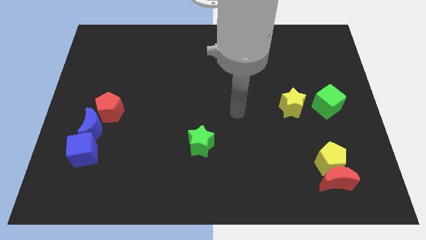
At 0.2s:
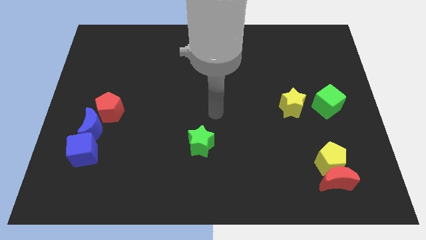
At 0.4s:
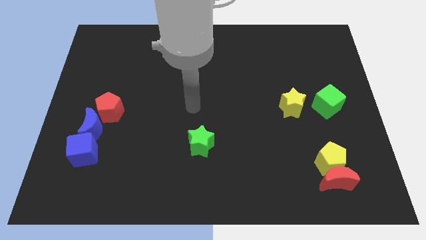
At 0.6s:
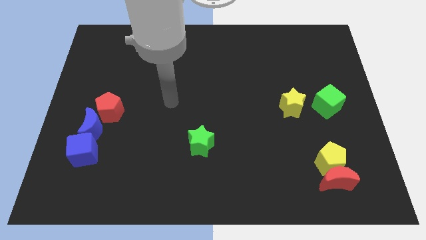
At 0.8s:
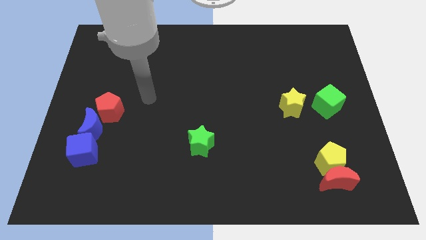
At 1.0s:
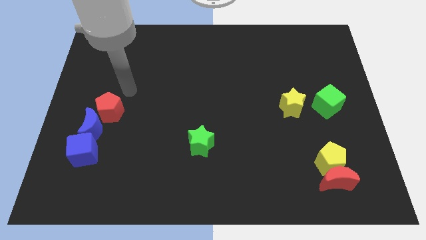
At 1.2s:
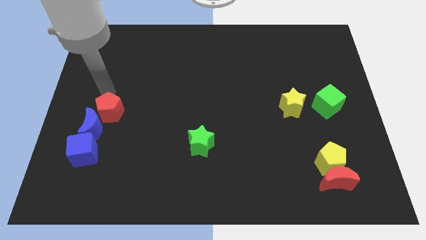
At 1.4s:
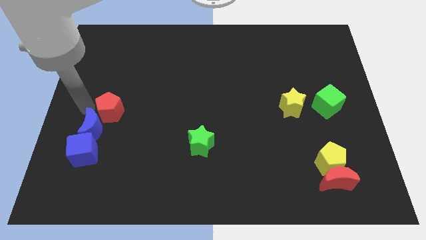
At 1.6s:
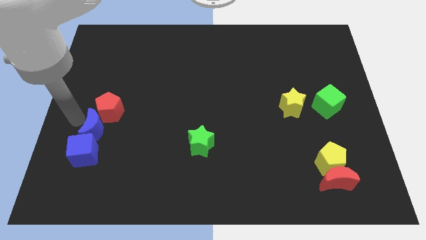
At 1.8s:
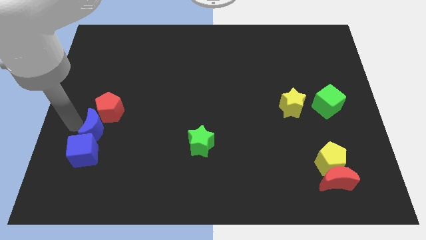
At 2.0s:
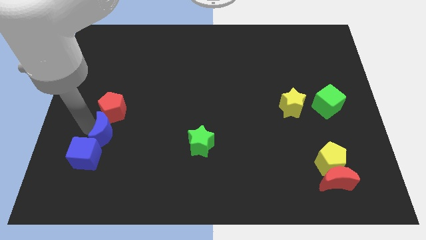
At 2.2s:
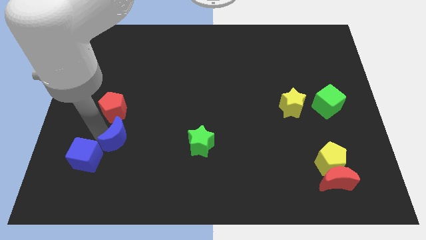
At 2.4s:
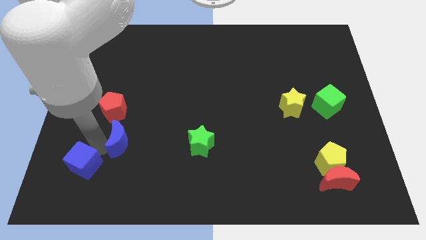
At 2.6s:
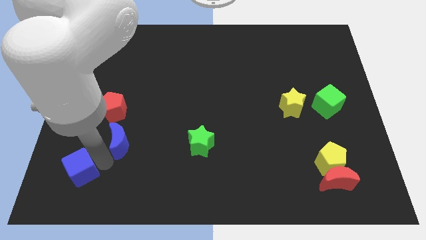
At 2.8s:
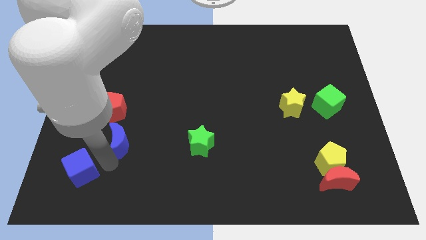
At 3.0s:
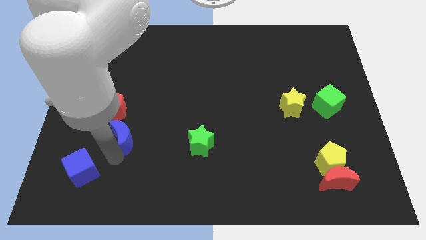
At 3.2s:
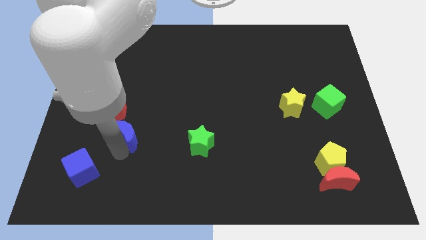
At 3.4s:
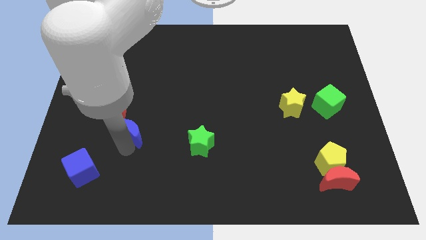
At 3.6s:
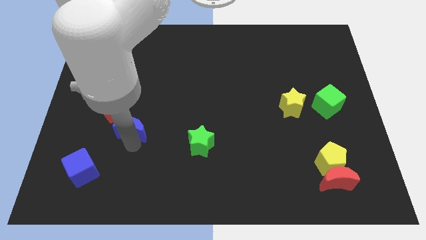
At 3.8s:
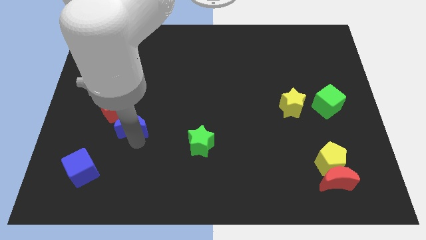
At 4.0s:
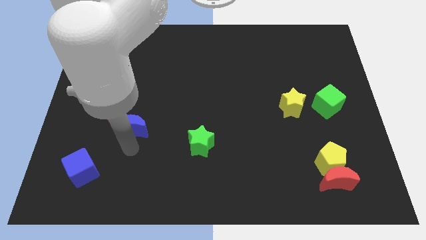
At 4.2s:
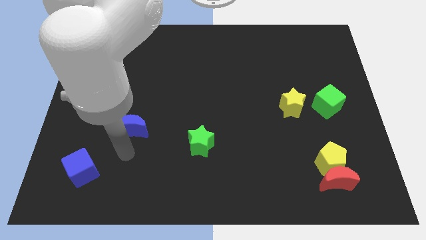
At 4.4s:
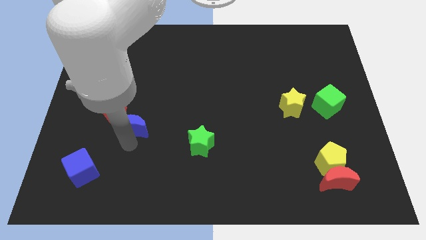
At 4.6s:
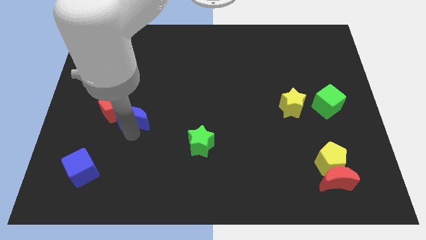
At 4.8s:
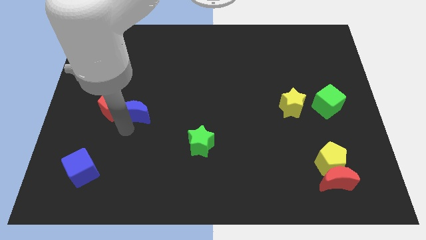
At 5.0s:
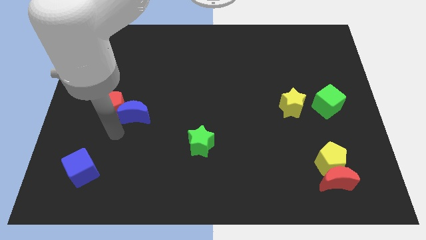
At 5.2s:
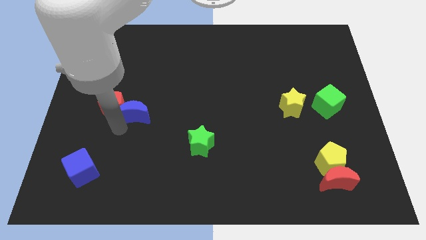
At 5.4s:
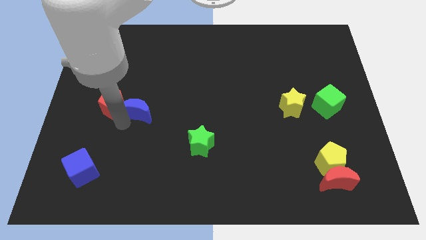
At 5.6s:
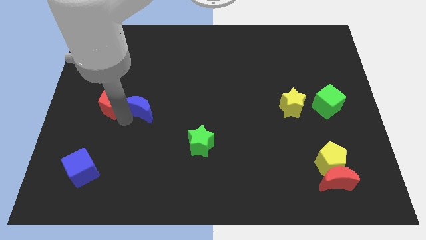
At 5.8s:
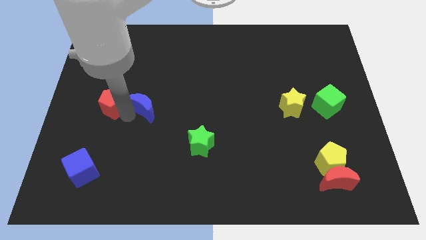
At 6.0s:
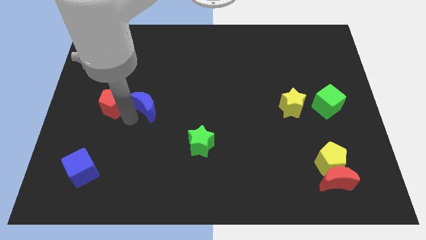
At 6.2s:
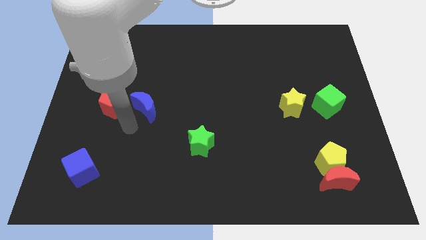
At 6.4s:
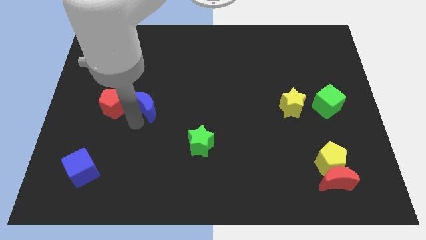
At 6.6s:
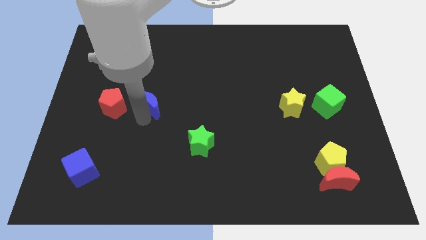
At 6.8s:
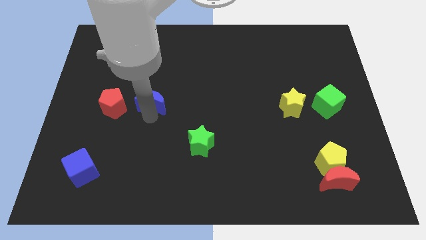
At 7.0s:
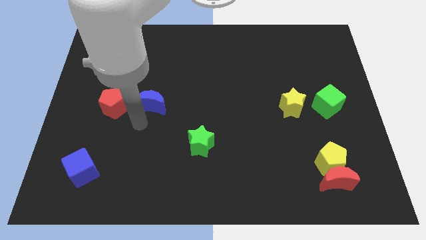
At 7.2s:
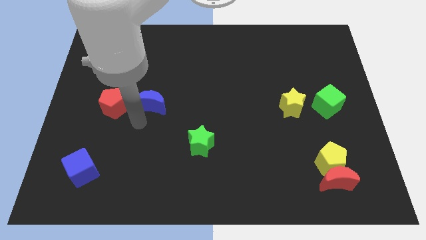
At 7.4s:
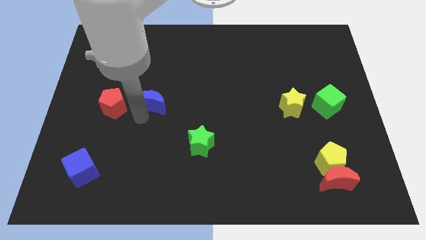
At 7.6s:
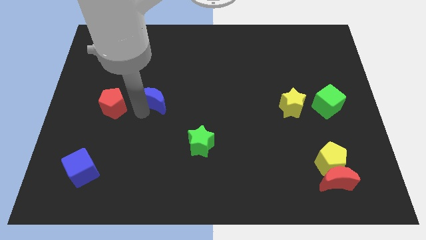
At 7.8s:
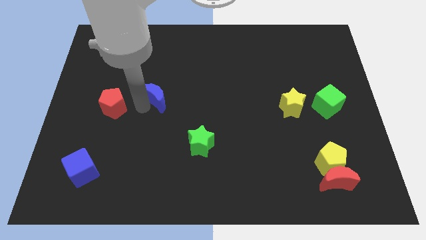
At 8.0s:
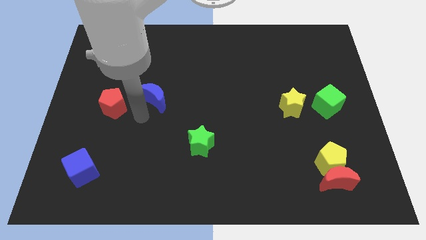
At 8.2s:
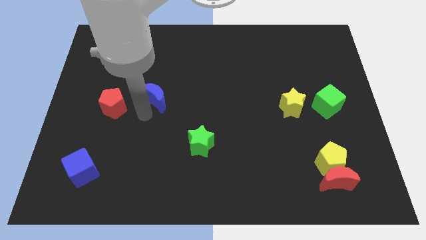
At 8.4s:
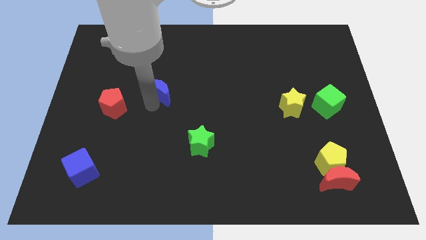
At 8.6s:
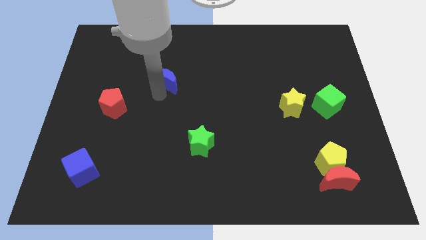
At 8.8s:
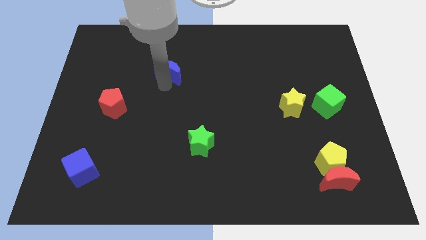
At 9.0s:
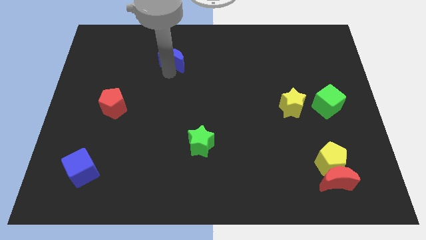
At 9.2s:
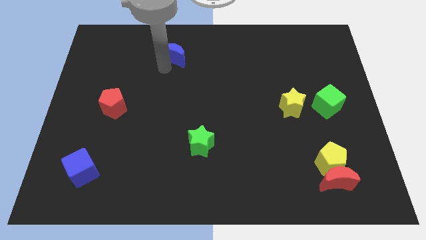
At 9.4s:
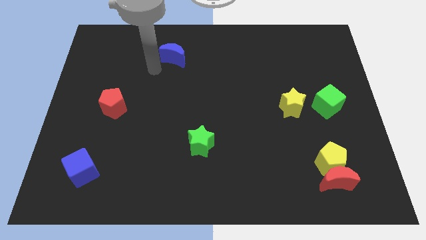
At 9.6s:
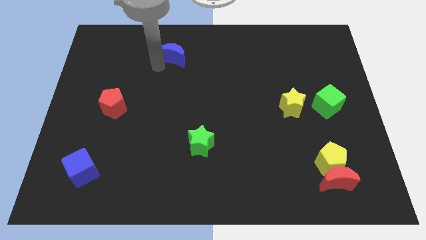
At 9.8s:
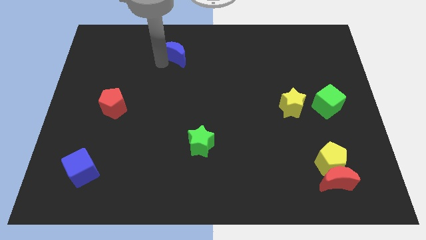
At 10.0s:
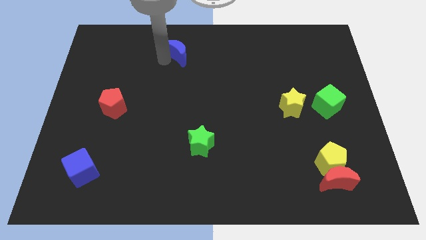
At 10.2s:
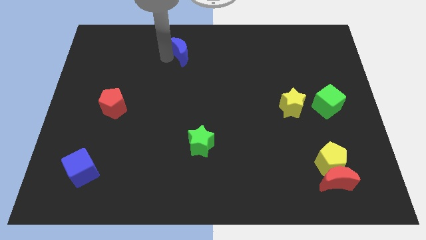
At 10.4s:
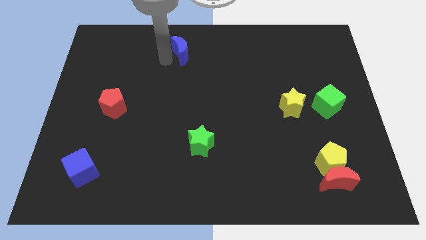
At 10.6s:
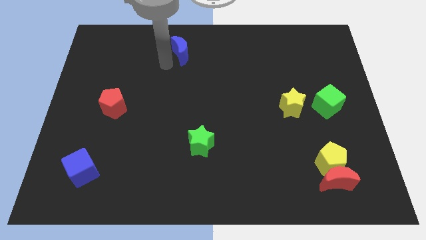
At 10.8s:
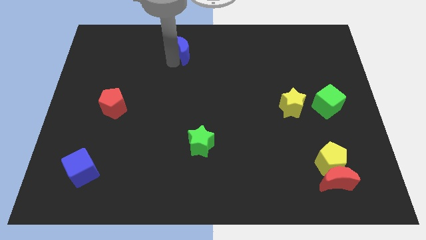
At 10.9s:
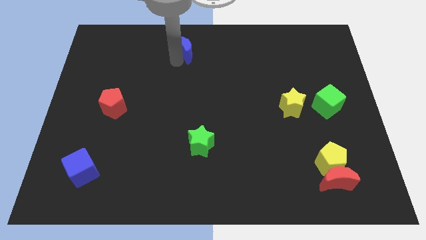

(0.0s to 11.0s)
move the blue moon to the towards your base
